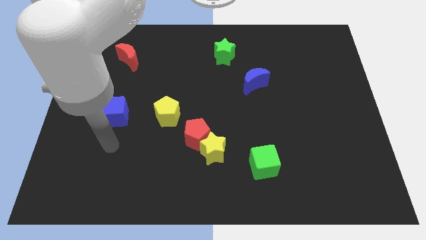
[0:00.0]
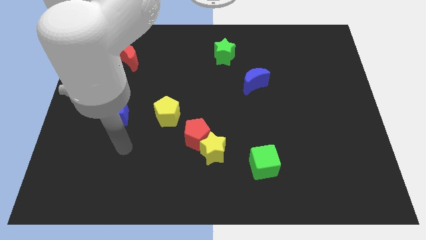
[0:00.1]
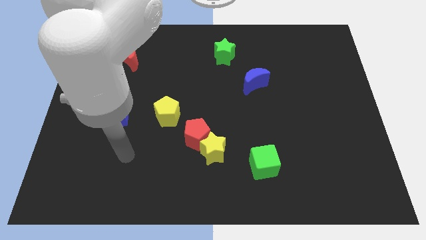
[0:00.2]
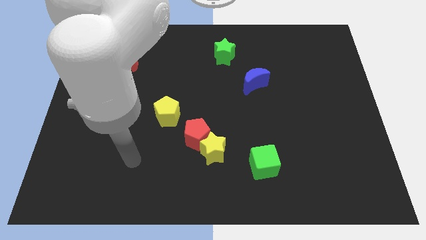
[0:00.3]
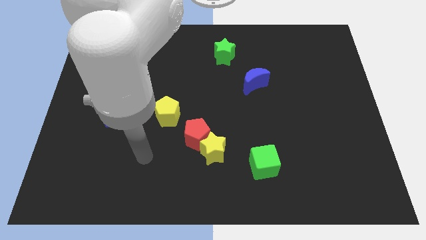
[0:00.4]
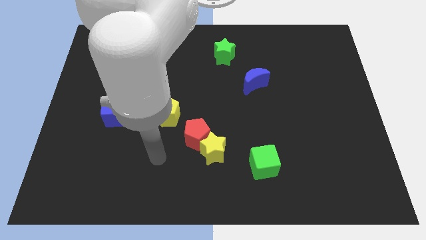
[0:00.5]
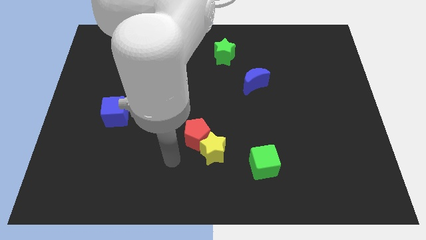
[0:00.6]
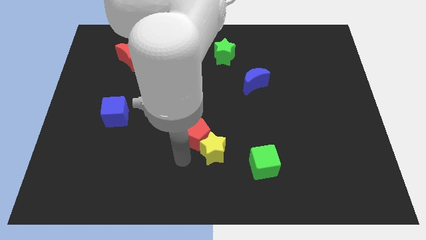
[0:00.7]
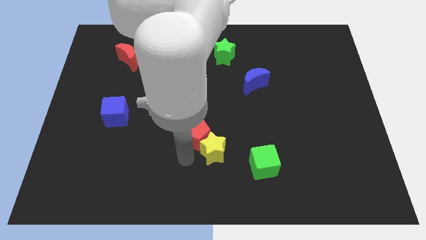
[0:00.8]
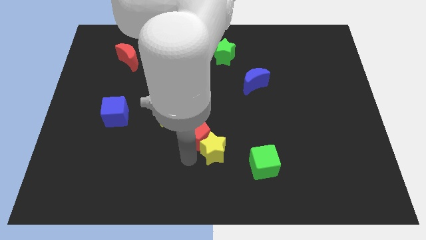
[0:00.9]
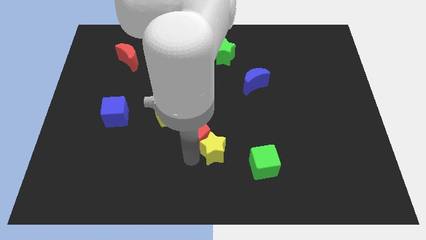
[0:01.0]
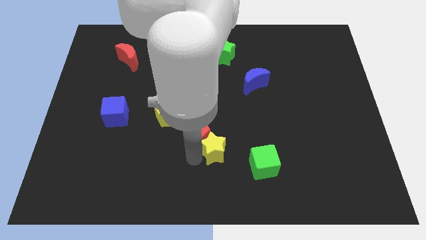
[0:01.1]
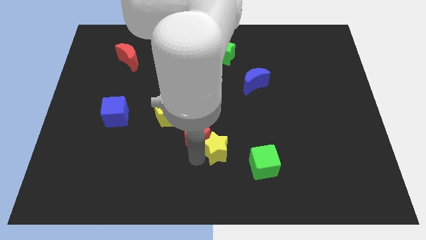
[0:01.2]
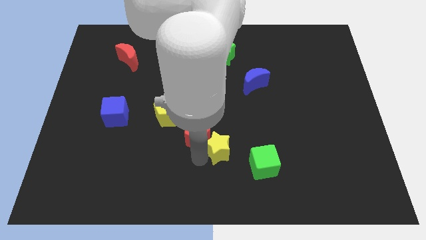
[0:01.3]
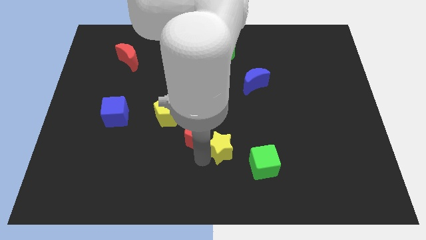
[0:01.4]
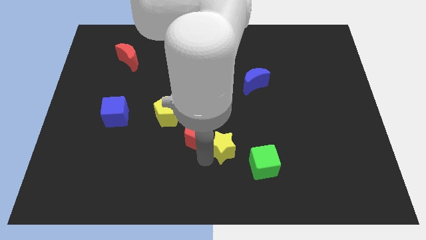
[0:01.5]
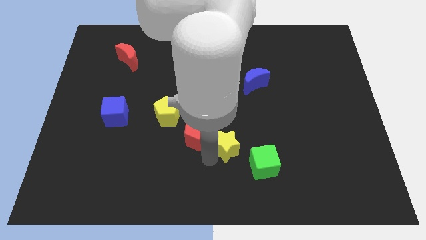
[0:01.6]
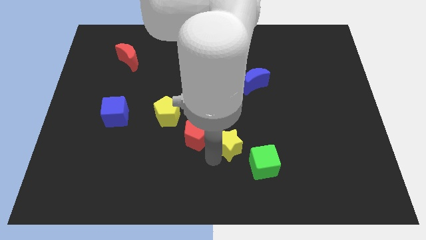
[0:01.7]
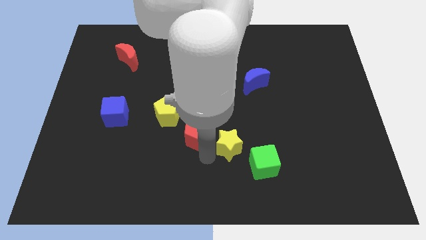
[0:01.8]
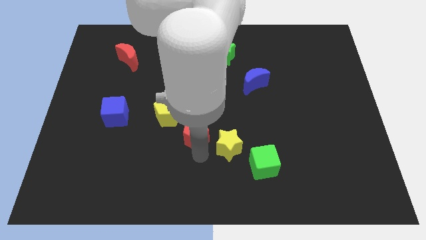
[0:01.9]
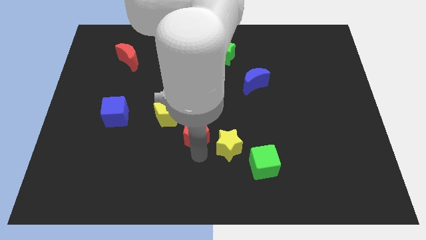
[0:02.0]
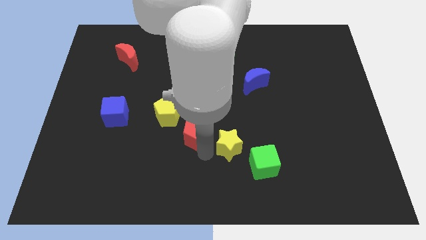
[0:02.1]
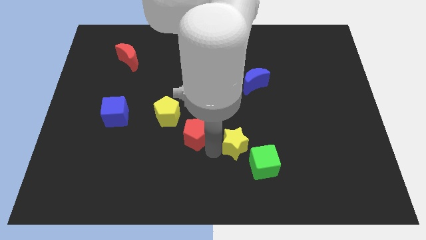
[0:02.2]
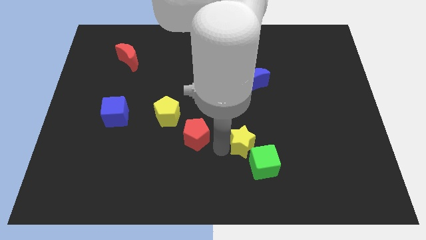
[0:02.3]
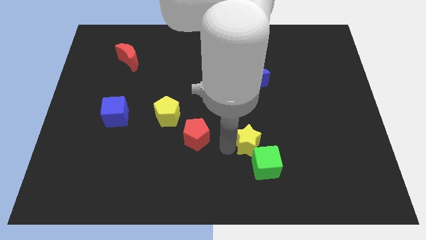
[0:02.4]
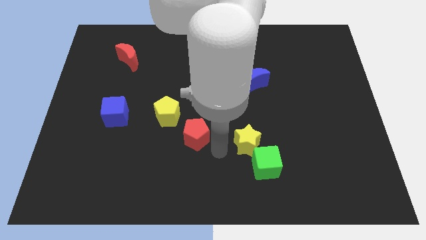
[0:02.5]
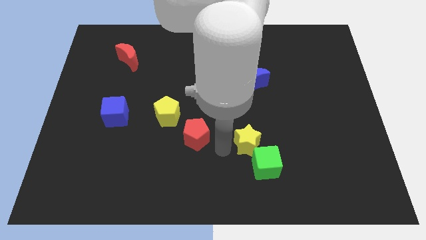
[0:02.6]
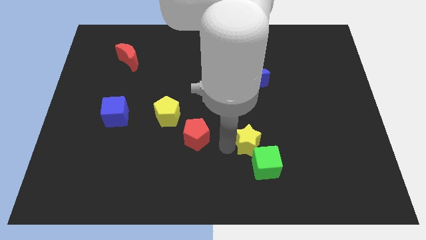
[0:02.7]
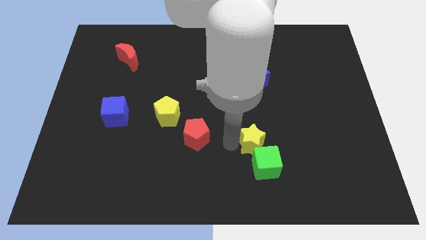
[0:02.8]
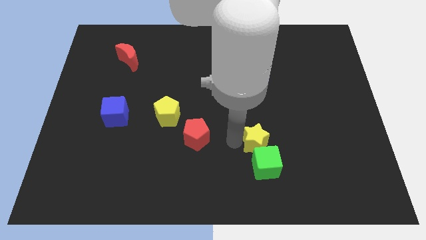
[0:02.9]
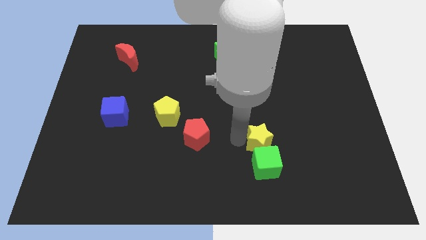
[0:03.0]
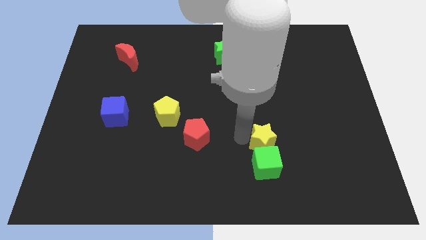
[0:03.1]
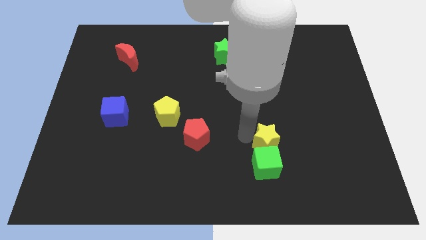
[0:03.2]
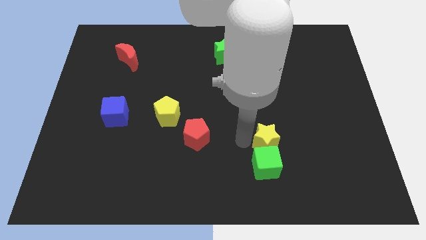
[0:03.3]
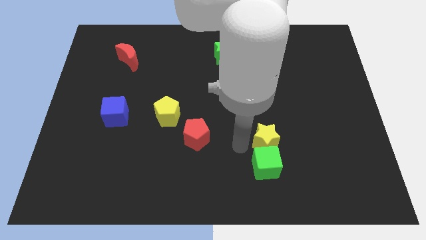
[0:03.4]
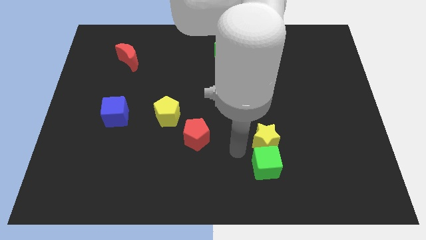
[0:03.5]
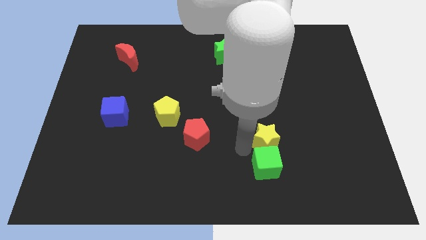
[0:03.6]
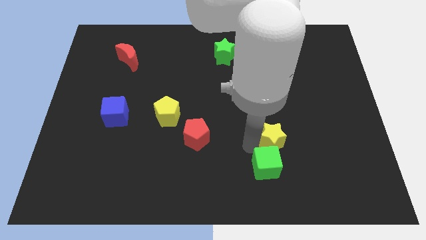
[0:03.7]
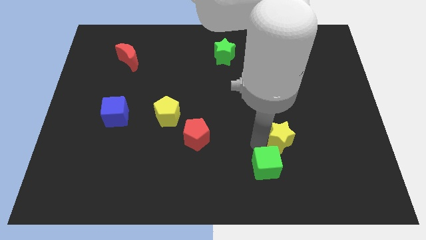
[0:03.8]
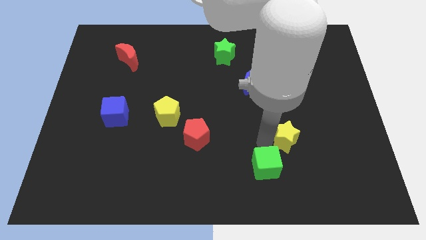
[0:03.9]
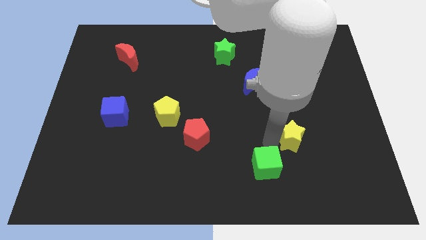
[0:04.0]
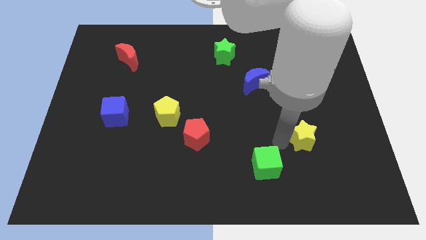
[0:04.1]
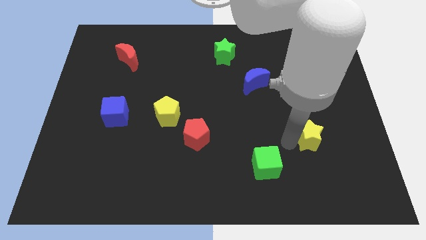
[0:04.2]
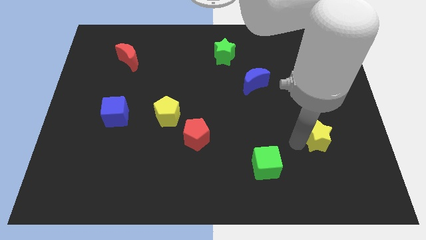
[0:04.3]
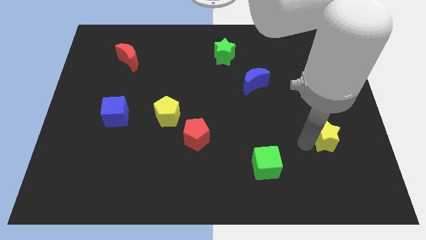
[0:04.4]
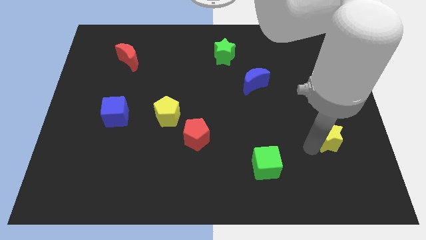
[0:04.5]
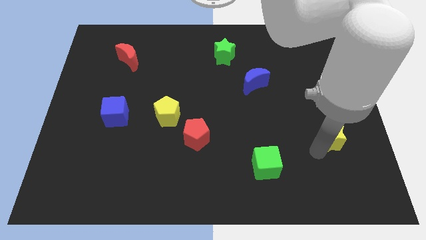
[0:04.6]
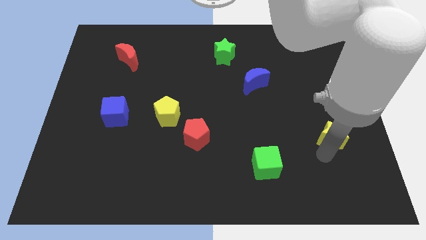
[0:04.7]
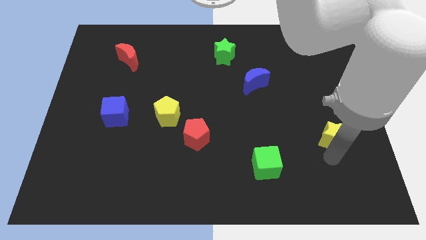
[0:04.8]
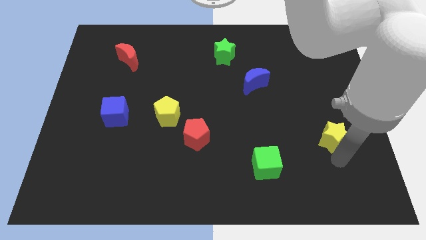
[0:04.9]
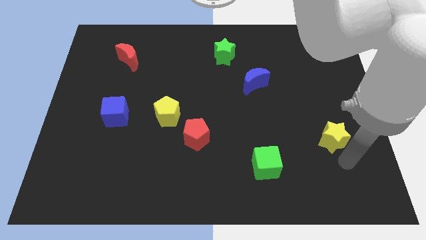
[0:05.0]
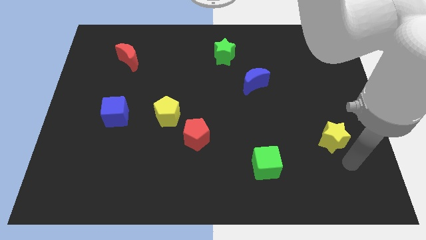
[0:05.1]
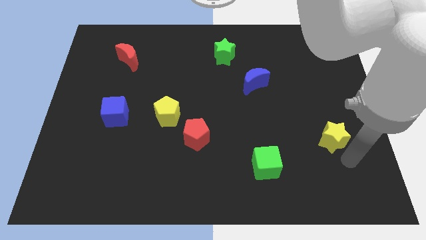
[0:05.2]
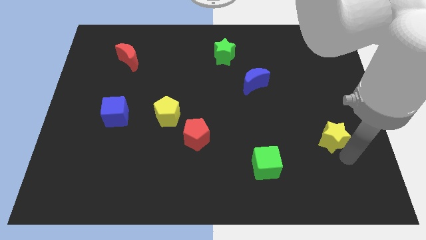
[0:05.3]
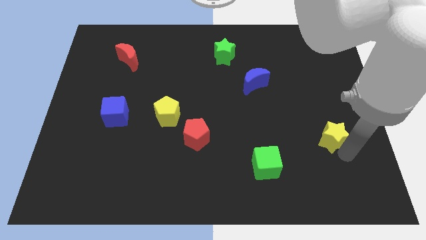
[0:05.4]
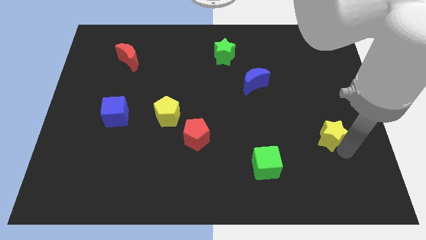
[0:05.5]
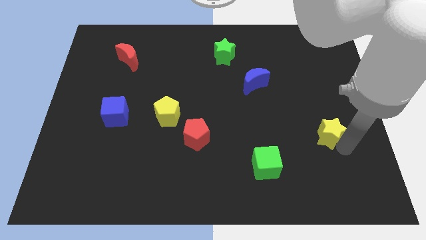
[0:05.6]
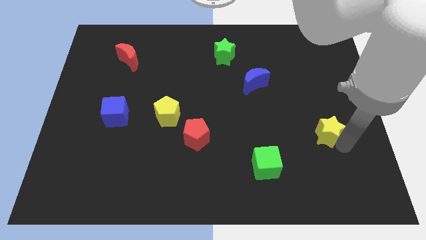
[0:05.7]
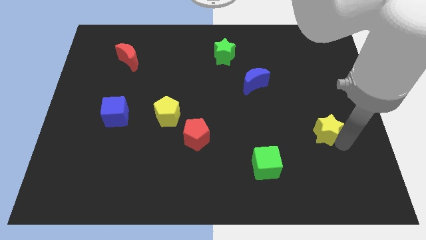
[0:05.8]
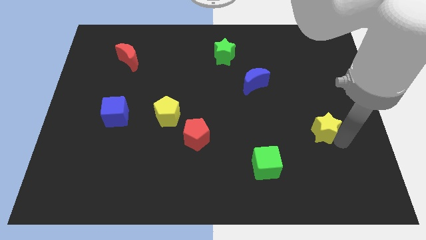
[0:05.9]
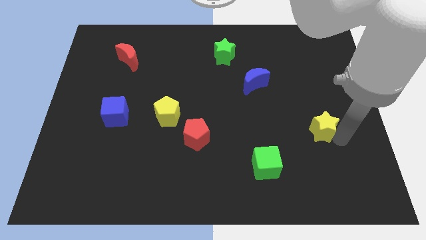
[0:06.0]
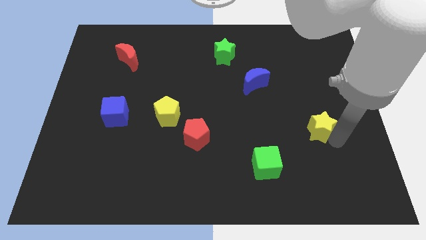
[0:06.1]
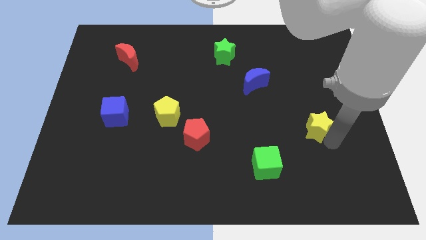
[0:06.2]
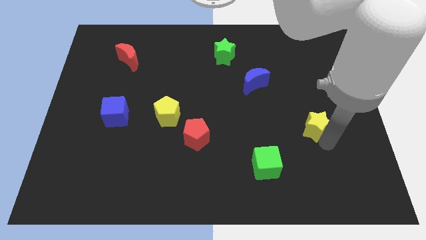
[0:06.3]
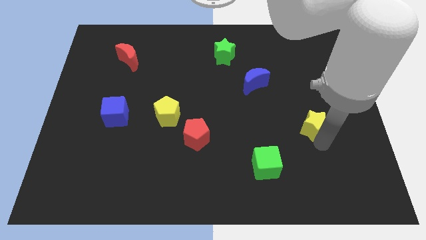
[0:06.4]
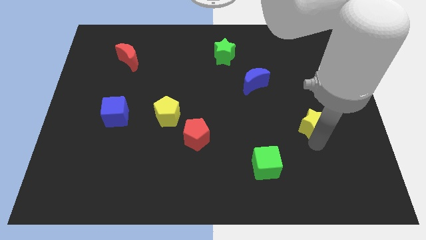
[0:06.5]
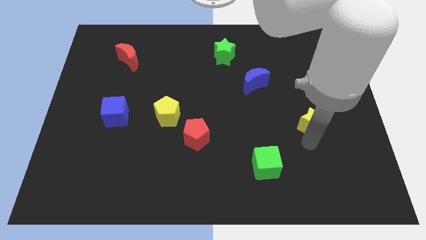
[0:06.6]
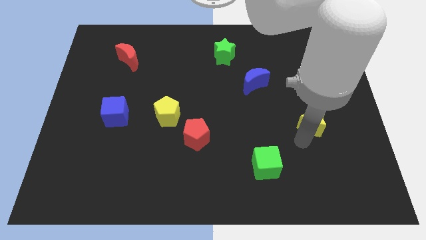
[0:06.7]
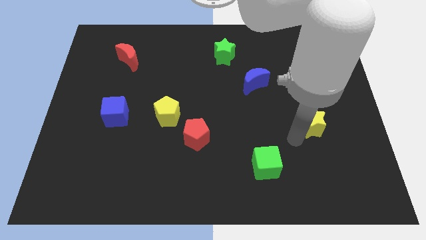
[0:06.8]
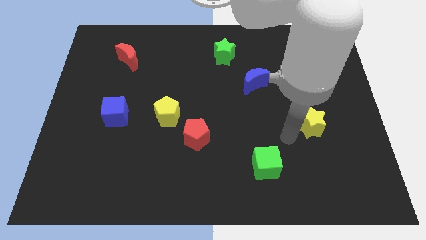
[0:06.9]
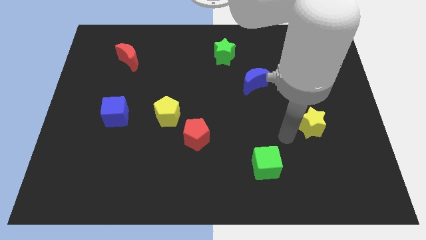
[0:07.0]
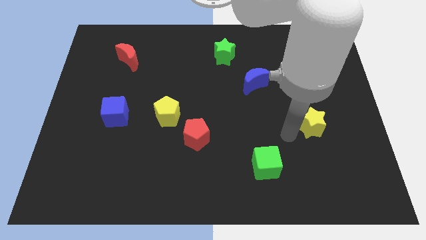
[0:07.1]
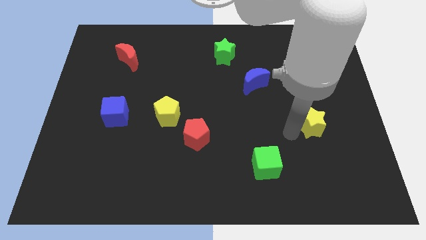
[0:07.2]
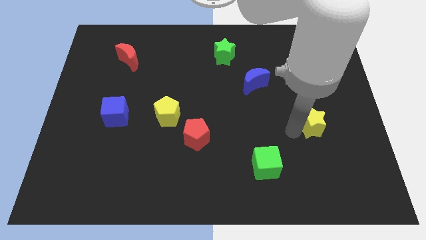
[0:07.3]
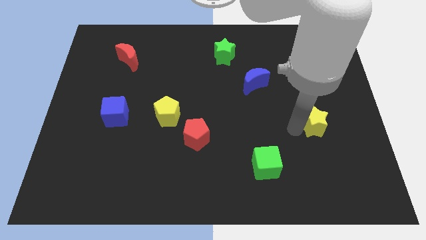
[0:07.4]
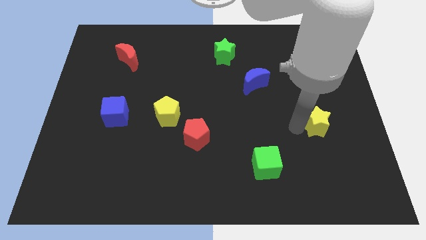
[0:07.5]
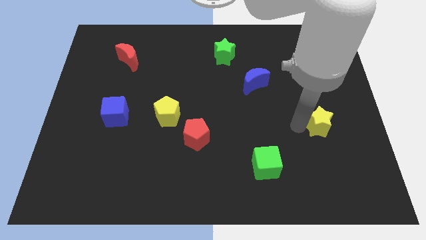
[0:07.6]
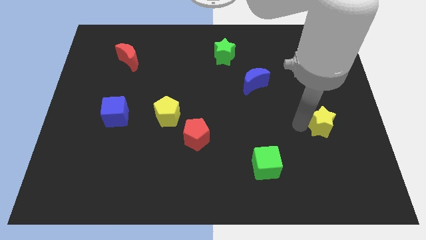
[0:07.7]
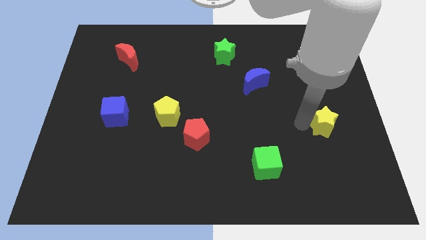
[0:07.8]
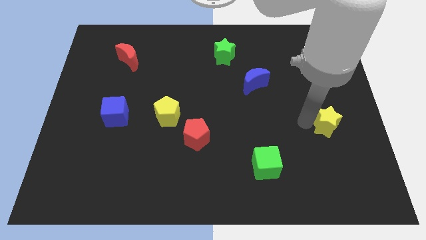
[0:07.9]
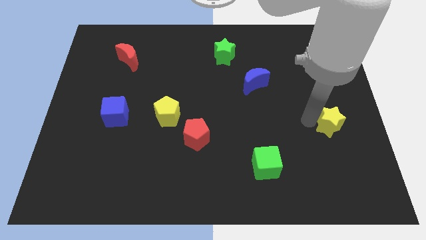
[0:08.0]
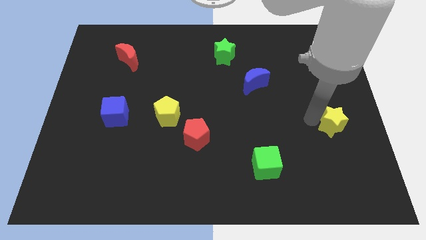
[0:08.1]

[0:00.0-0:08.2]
slide the yellow star to the right side
